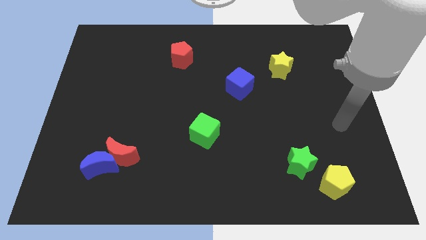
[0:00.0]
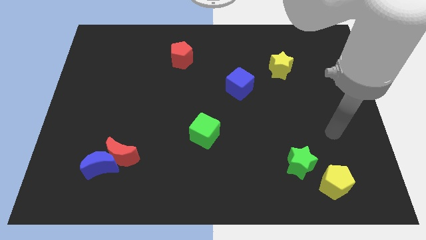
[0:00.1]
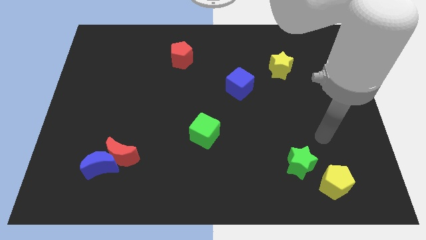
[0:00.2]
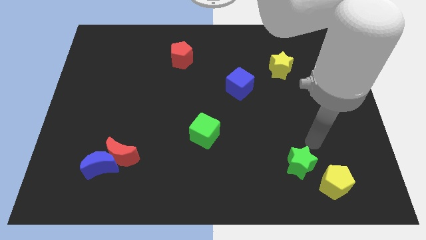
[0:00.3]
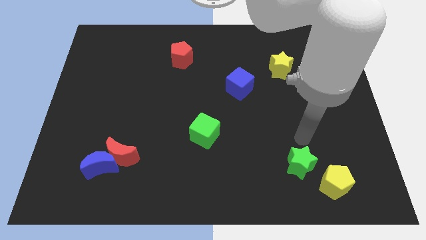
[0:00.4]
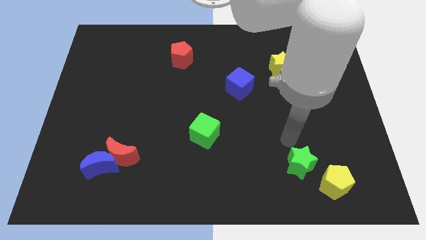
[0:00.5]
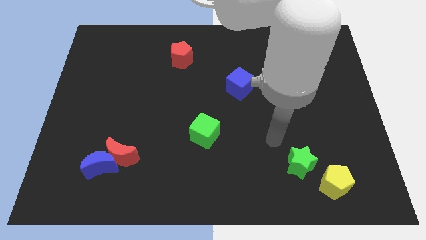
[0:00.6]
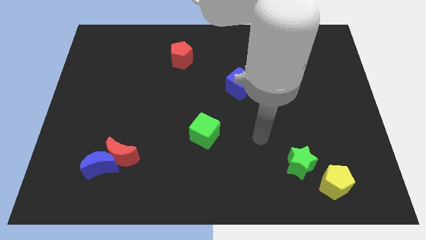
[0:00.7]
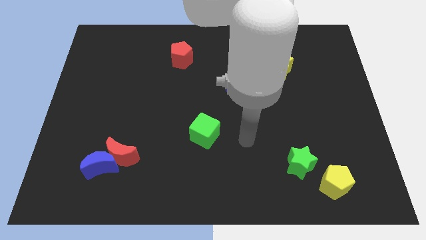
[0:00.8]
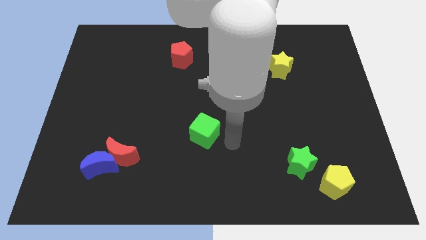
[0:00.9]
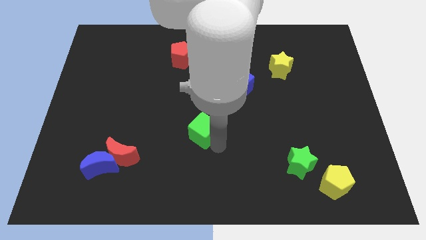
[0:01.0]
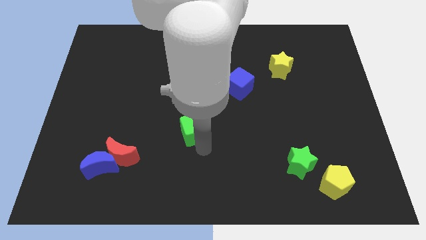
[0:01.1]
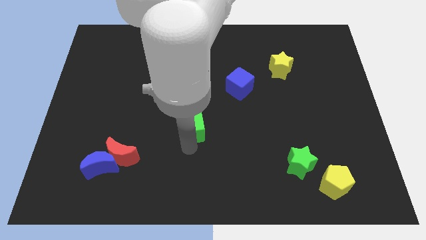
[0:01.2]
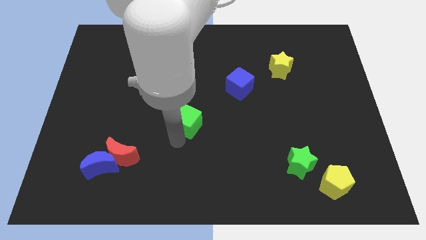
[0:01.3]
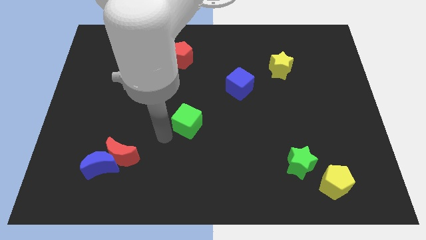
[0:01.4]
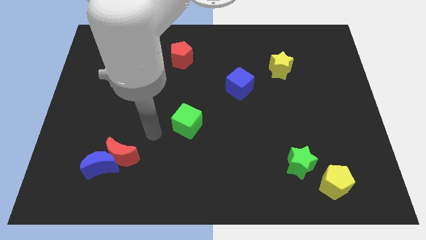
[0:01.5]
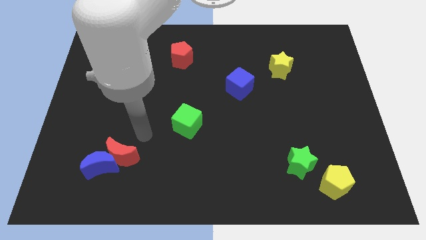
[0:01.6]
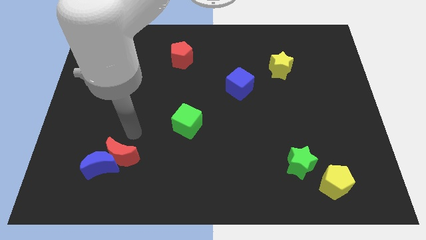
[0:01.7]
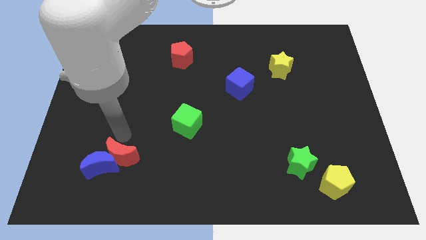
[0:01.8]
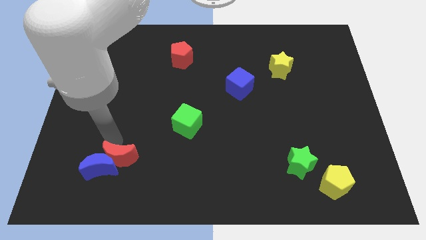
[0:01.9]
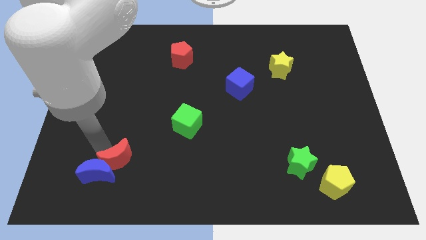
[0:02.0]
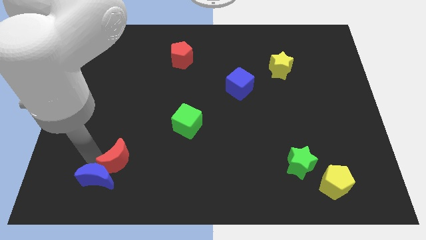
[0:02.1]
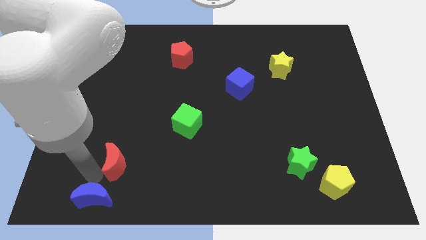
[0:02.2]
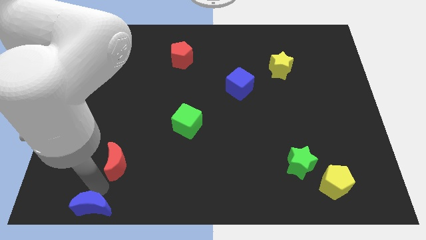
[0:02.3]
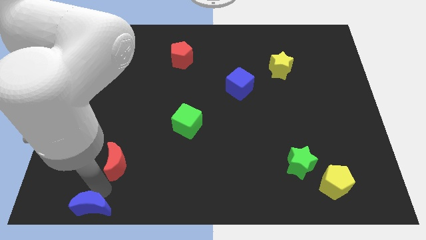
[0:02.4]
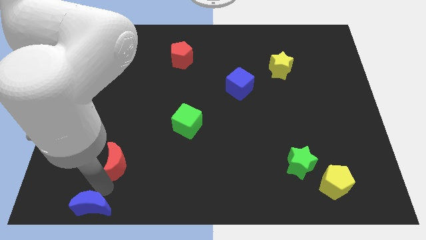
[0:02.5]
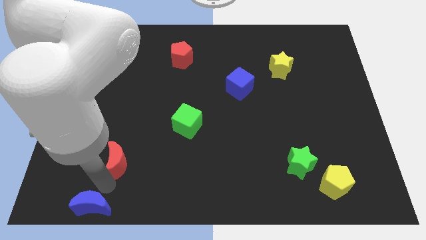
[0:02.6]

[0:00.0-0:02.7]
separate the red moon from the blue moon

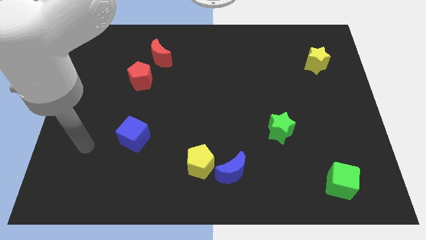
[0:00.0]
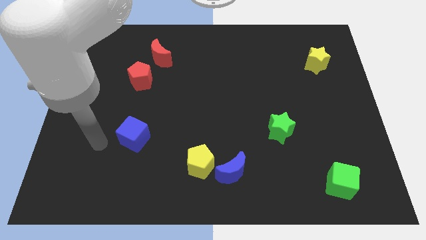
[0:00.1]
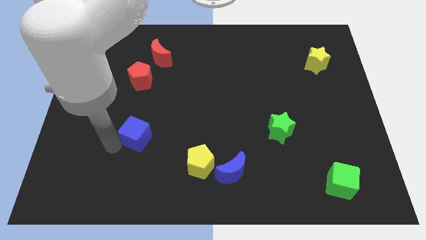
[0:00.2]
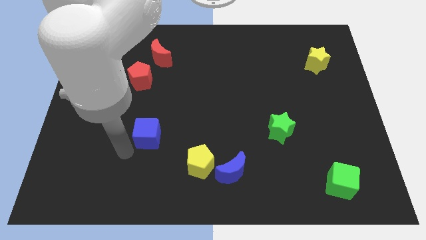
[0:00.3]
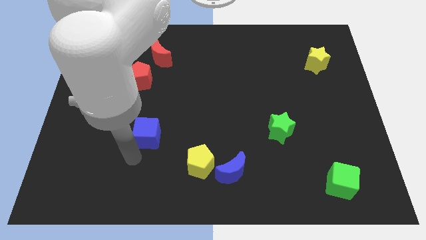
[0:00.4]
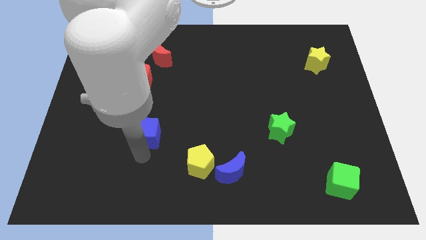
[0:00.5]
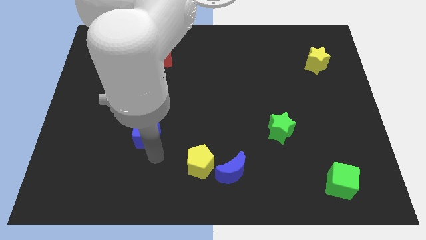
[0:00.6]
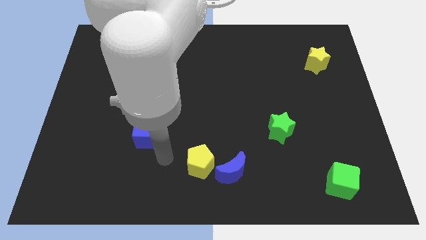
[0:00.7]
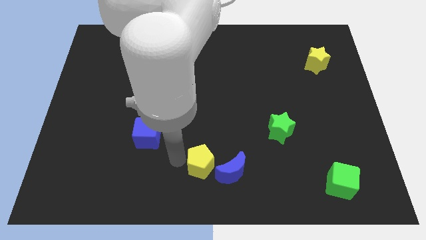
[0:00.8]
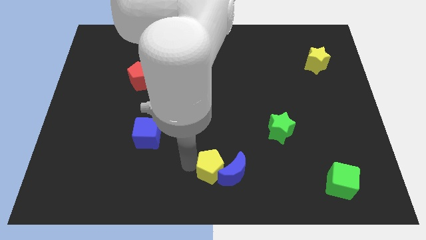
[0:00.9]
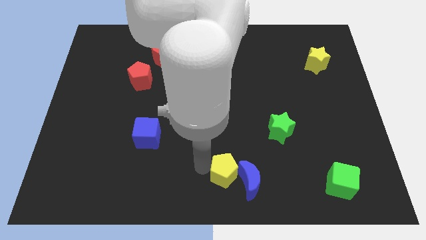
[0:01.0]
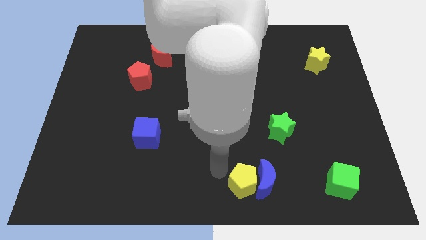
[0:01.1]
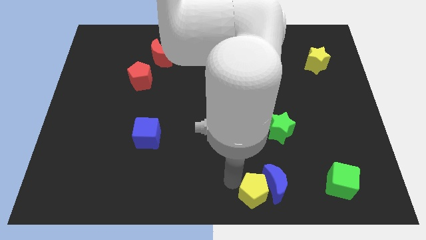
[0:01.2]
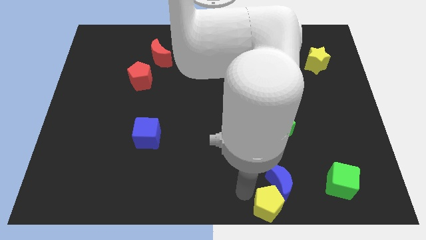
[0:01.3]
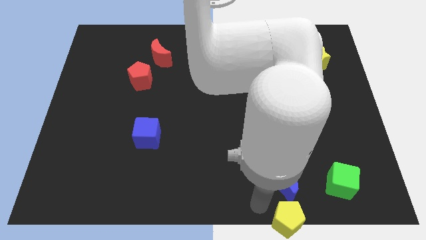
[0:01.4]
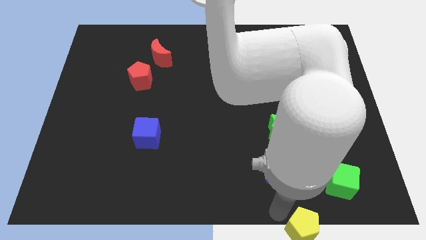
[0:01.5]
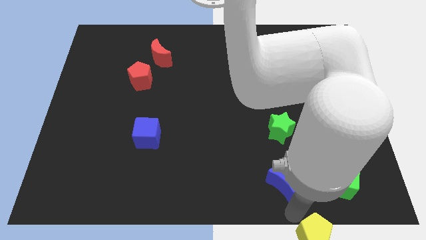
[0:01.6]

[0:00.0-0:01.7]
move the blue moon away from the yellow pentagon

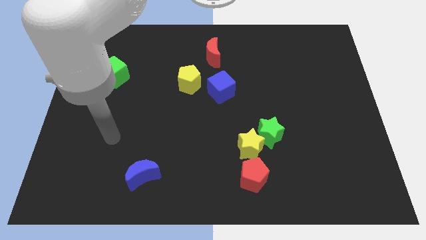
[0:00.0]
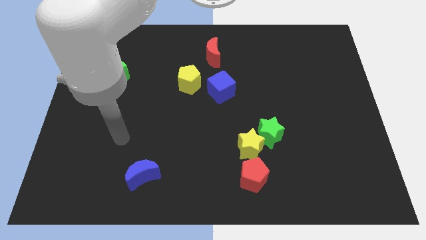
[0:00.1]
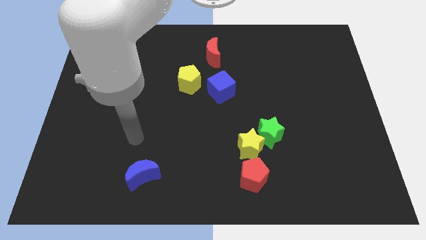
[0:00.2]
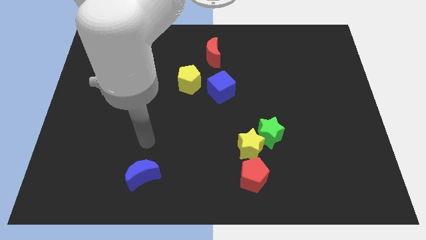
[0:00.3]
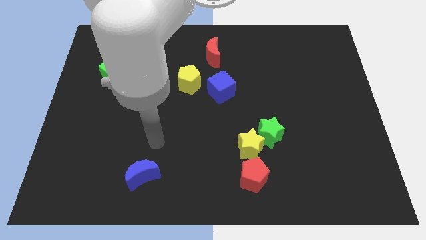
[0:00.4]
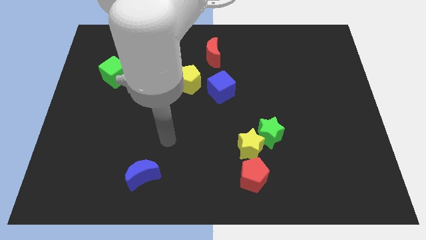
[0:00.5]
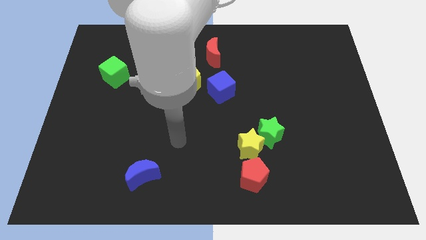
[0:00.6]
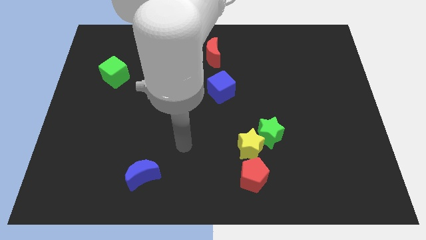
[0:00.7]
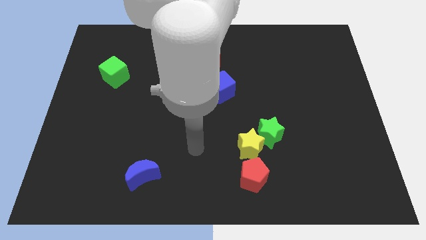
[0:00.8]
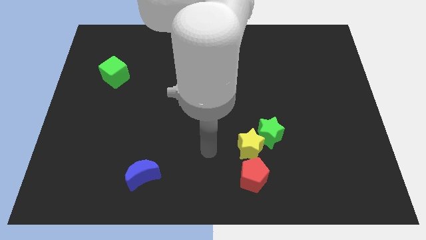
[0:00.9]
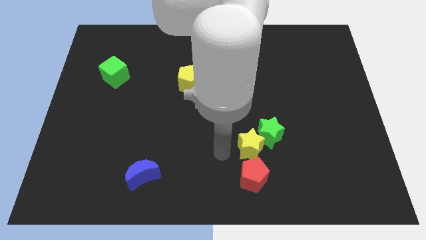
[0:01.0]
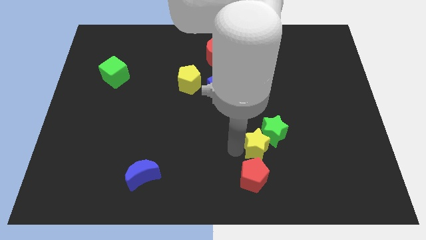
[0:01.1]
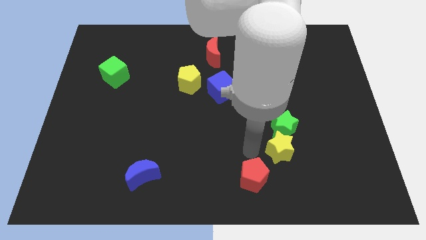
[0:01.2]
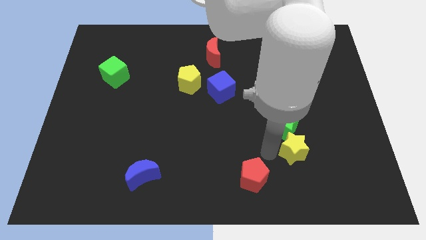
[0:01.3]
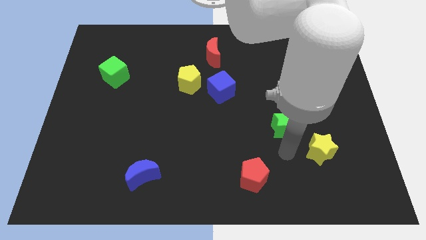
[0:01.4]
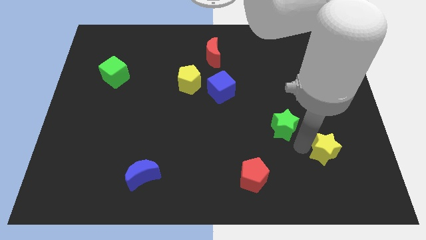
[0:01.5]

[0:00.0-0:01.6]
move the green star away from the yellow star

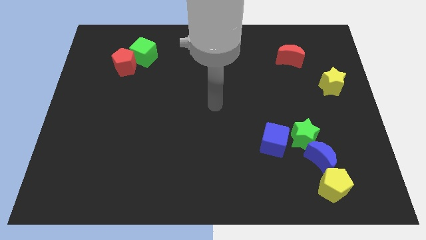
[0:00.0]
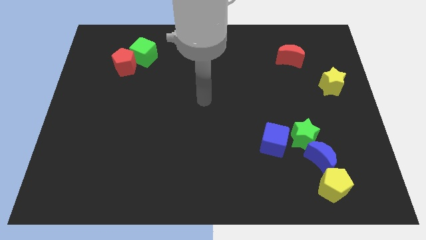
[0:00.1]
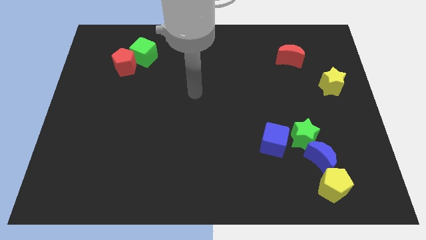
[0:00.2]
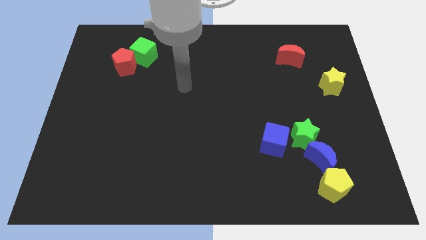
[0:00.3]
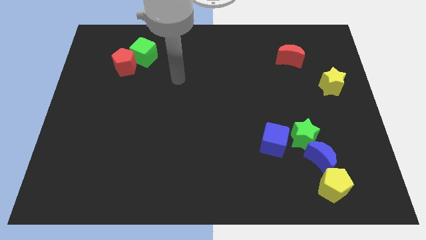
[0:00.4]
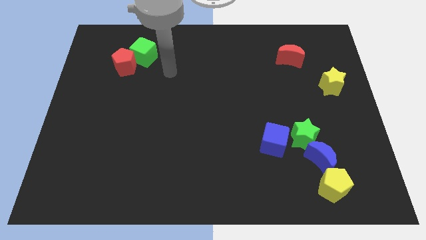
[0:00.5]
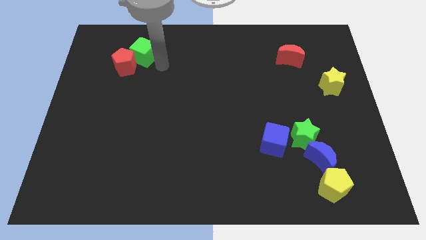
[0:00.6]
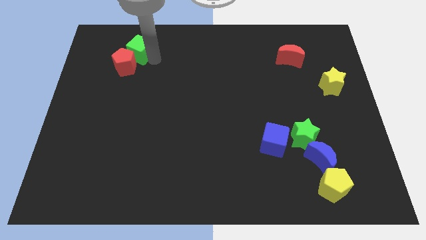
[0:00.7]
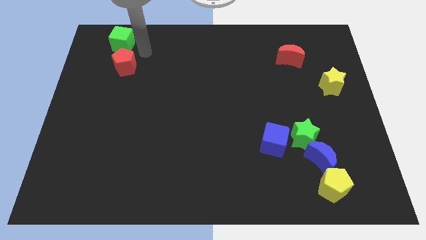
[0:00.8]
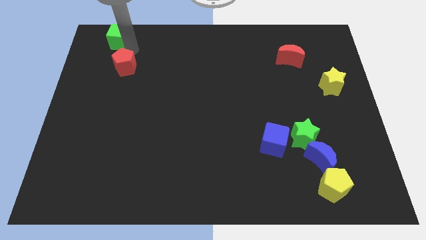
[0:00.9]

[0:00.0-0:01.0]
move the red pentagon away from the green cube

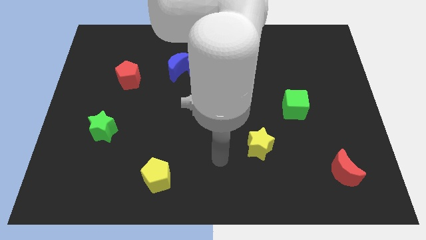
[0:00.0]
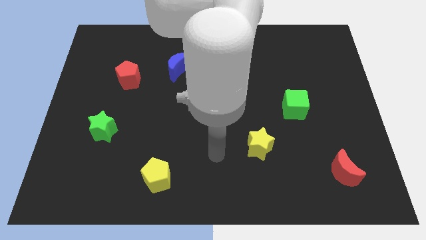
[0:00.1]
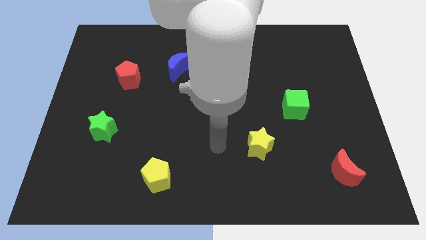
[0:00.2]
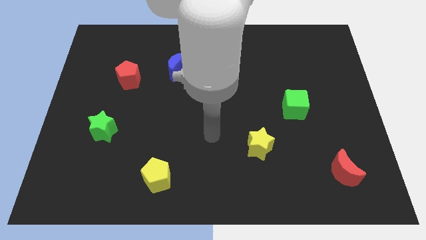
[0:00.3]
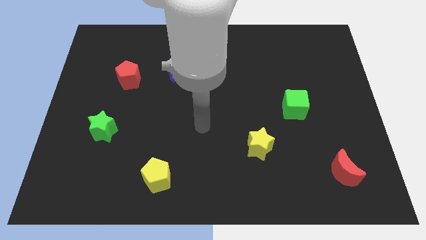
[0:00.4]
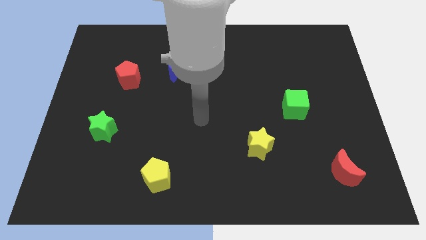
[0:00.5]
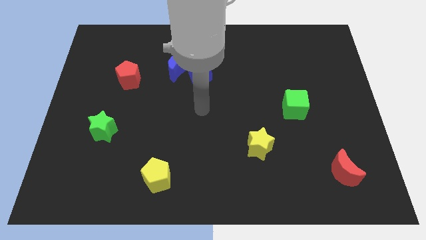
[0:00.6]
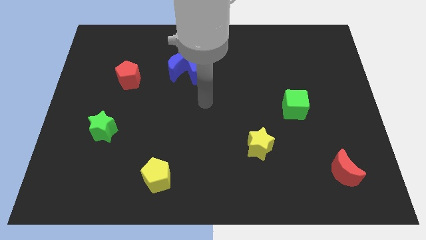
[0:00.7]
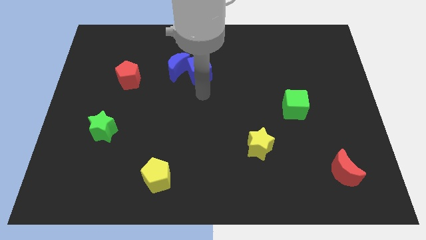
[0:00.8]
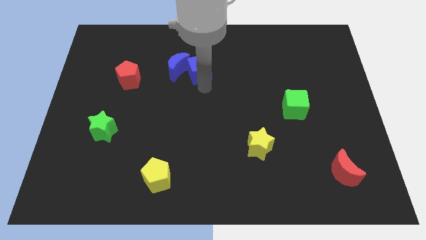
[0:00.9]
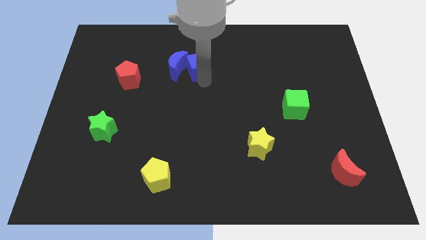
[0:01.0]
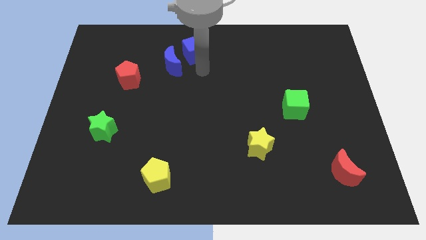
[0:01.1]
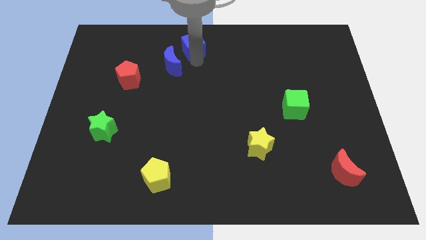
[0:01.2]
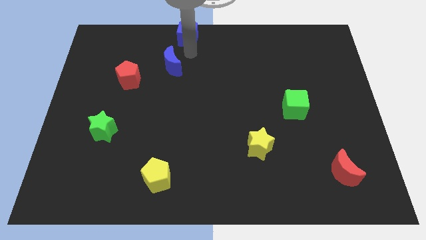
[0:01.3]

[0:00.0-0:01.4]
pull the blue moon apart from the blue cube

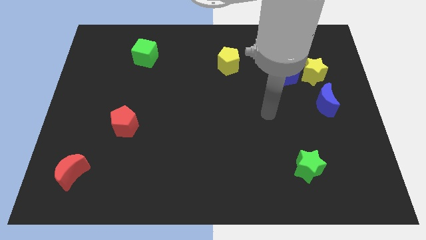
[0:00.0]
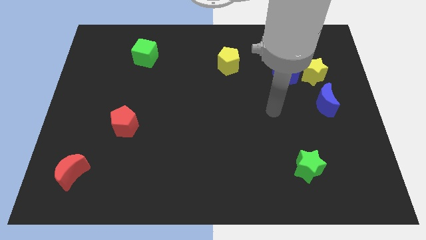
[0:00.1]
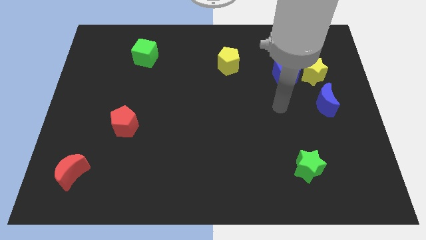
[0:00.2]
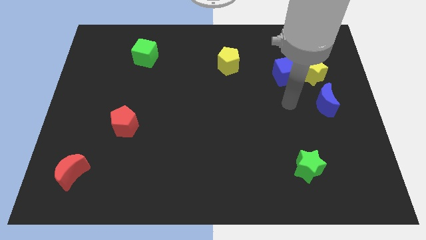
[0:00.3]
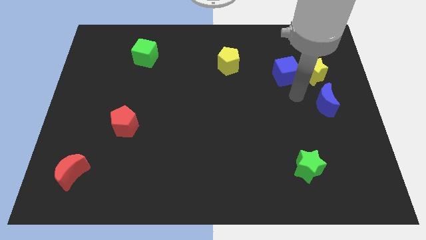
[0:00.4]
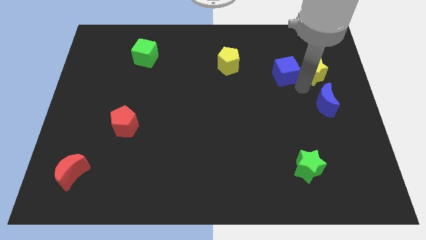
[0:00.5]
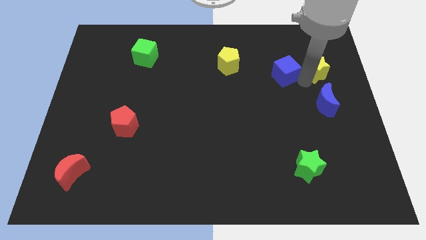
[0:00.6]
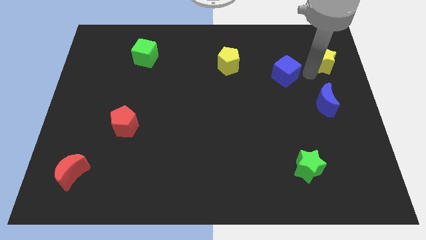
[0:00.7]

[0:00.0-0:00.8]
move the blue cube away from the yellow star

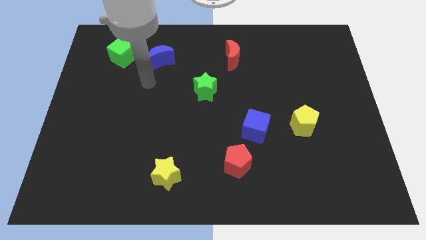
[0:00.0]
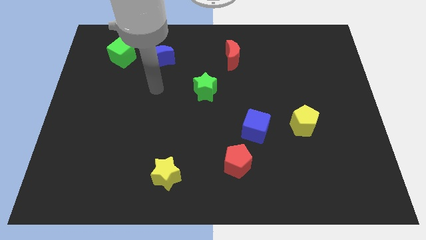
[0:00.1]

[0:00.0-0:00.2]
move the red pentagon away from the blue cube
